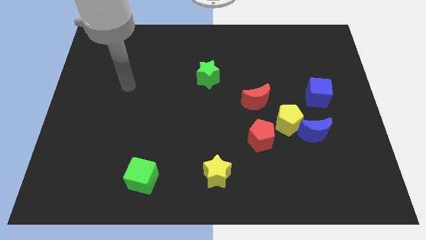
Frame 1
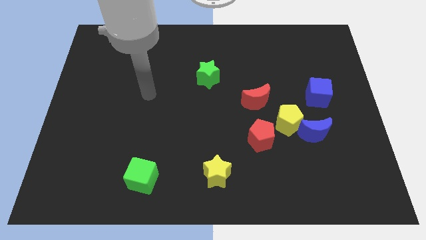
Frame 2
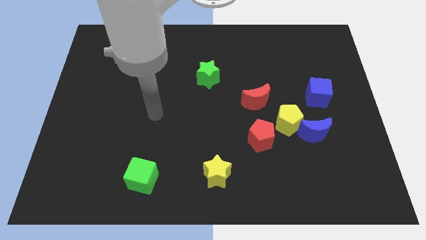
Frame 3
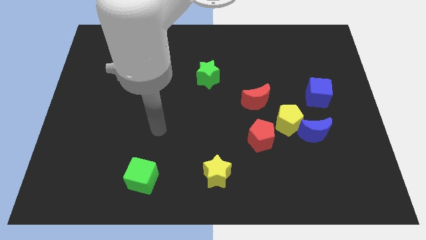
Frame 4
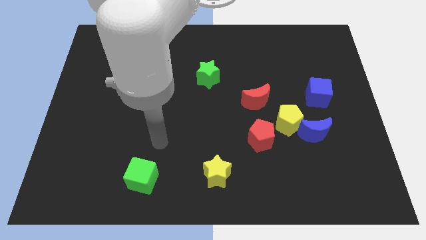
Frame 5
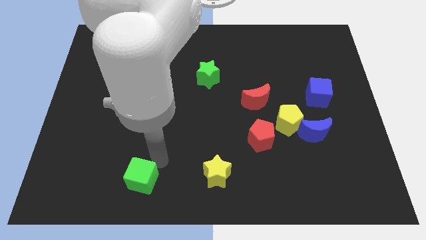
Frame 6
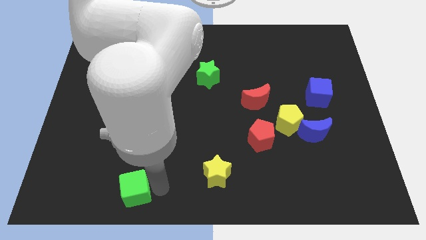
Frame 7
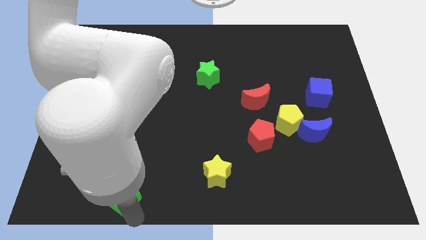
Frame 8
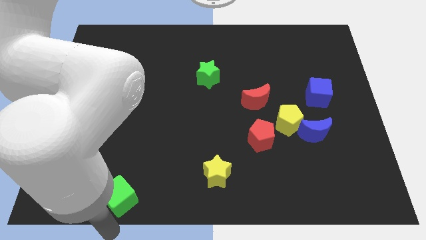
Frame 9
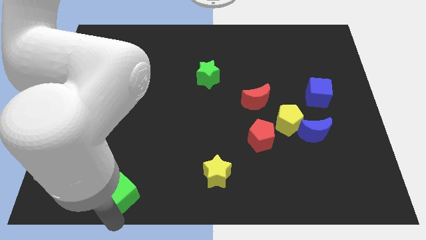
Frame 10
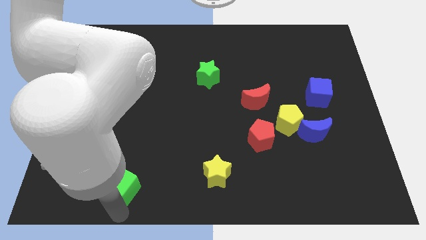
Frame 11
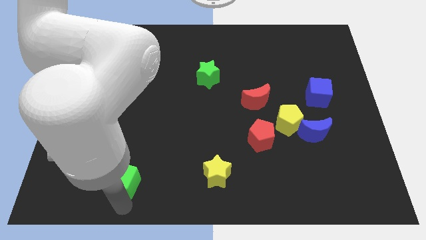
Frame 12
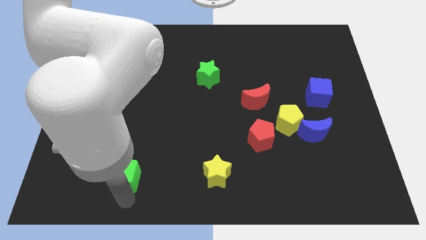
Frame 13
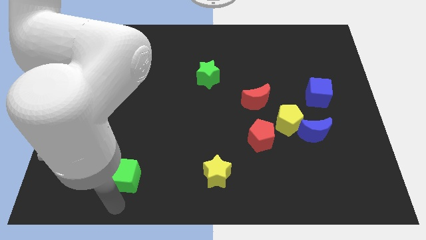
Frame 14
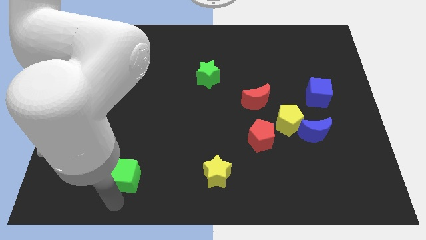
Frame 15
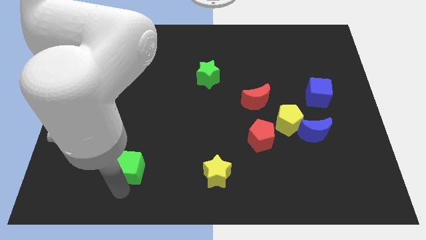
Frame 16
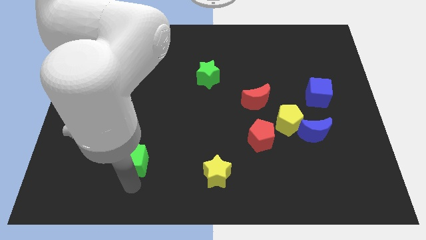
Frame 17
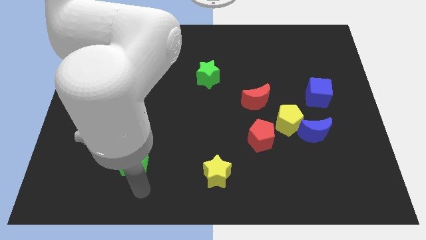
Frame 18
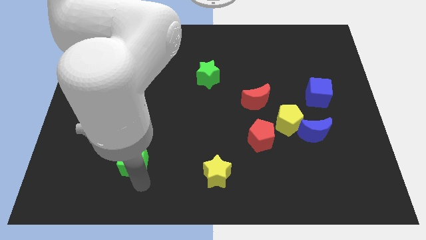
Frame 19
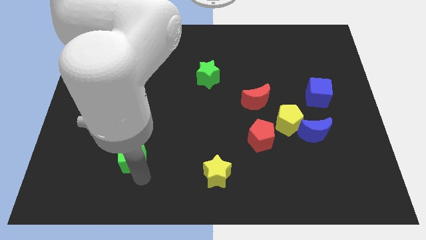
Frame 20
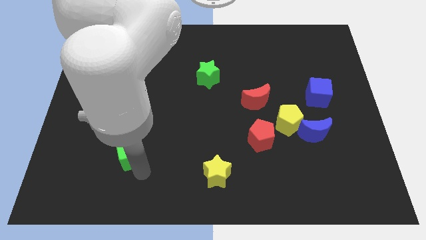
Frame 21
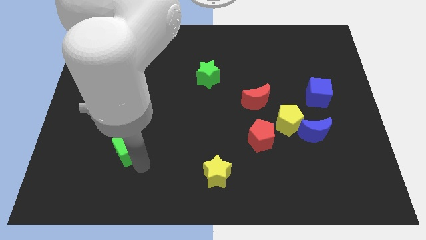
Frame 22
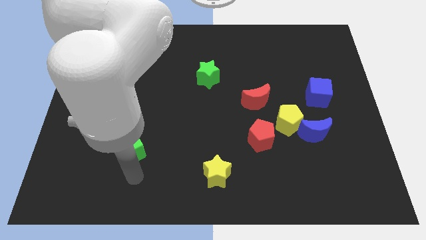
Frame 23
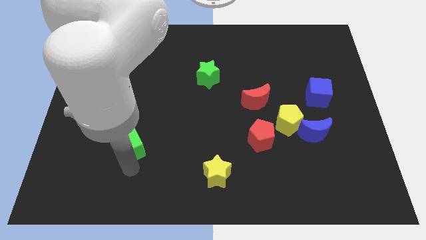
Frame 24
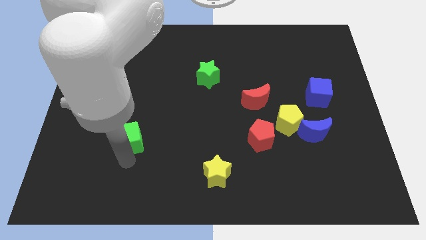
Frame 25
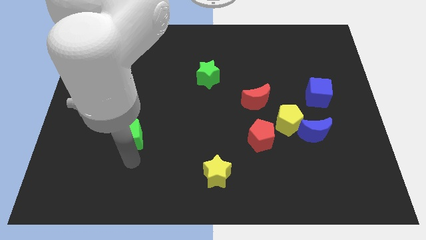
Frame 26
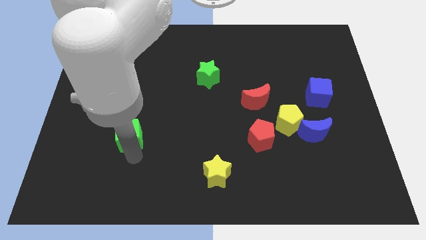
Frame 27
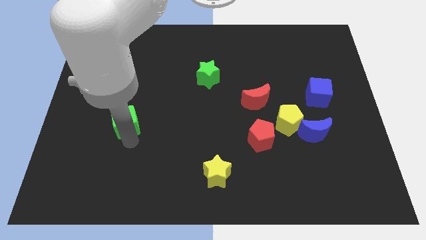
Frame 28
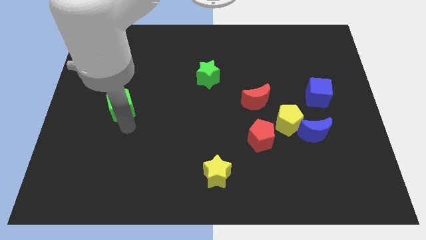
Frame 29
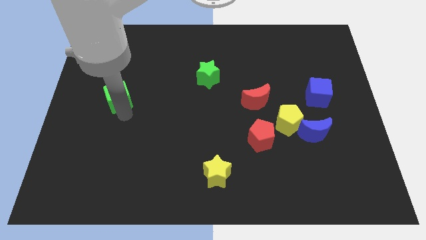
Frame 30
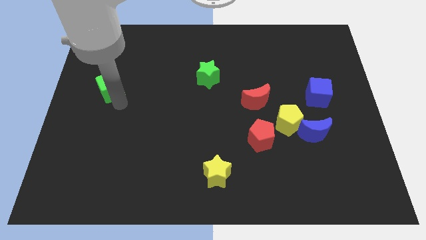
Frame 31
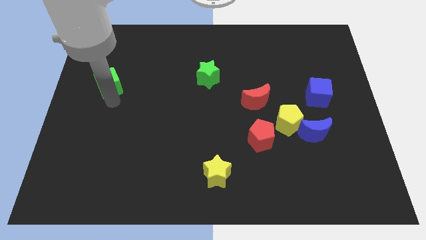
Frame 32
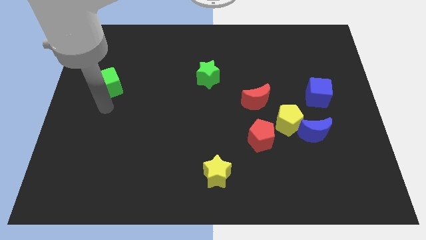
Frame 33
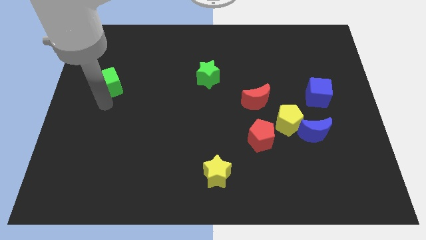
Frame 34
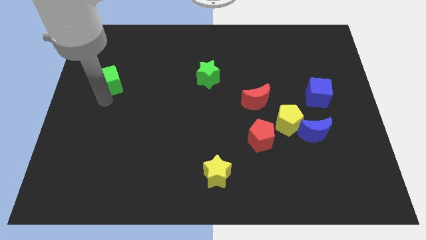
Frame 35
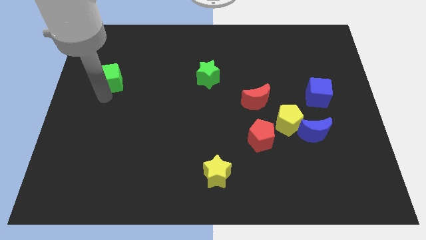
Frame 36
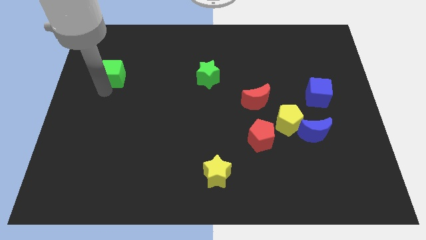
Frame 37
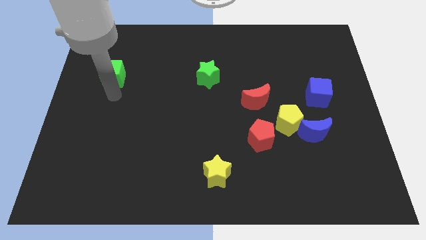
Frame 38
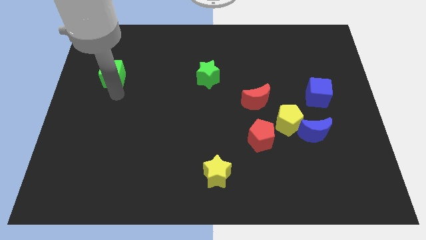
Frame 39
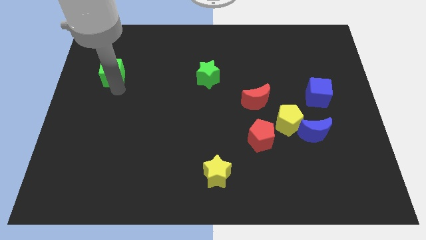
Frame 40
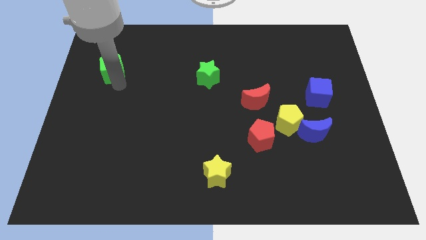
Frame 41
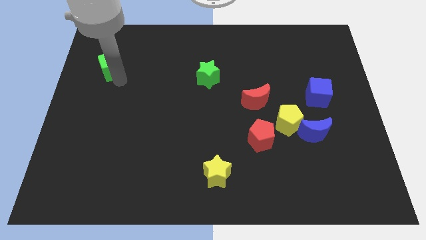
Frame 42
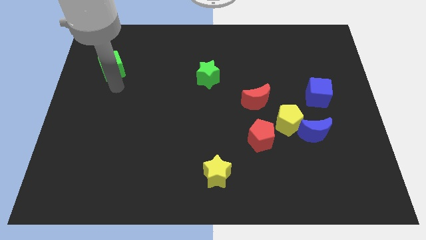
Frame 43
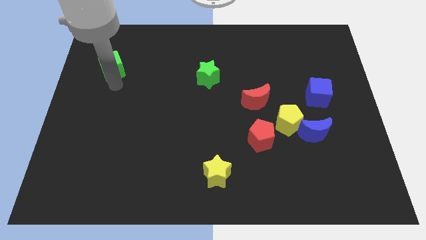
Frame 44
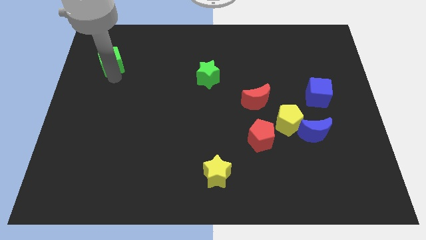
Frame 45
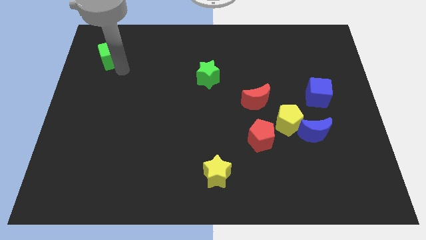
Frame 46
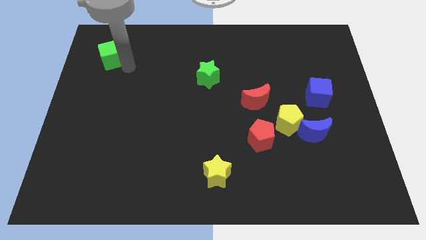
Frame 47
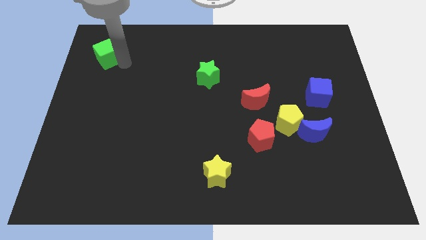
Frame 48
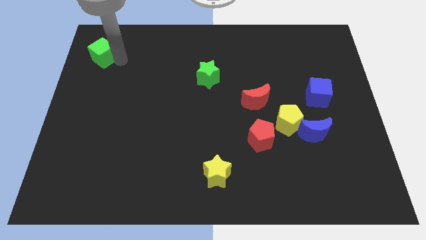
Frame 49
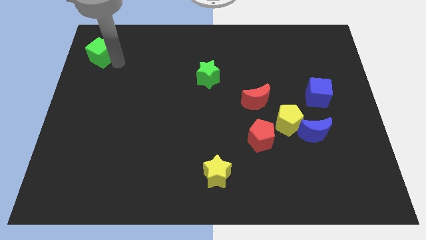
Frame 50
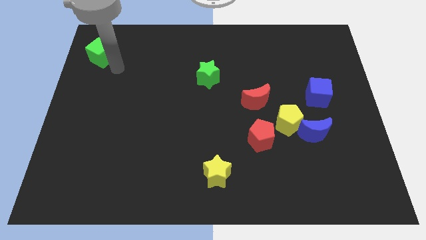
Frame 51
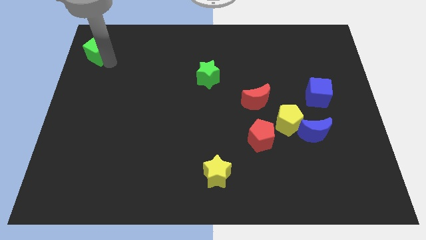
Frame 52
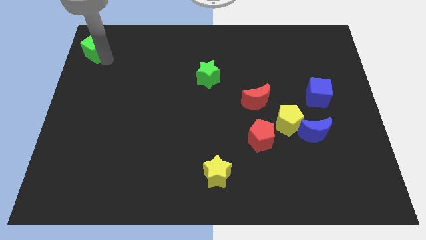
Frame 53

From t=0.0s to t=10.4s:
move the green cube to the top left corner

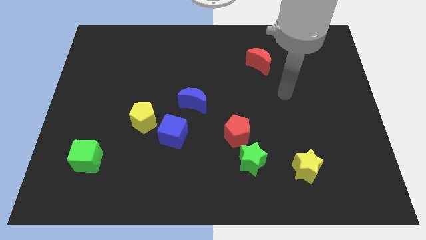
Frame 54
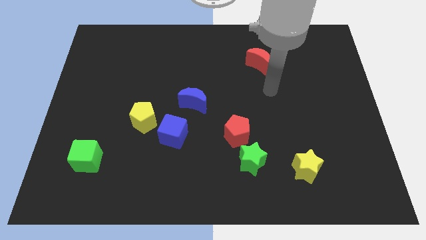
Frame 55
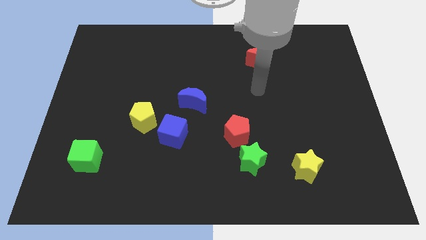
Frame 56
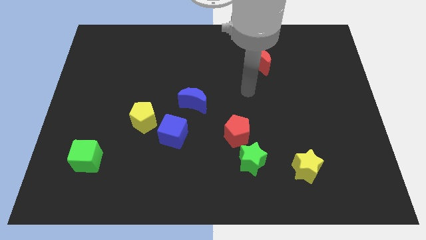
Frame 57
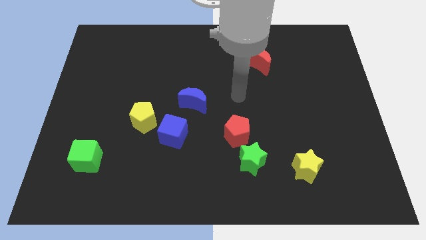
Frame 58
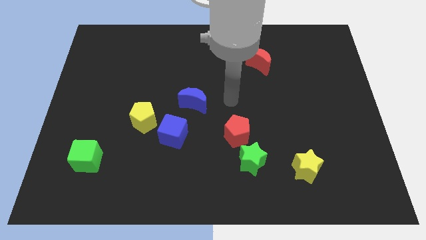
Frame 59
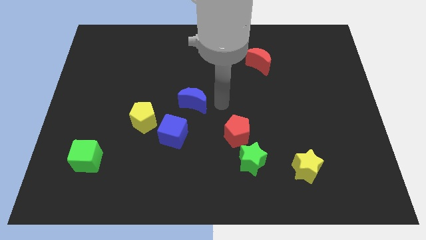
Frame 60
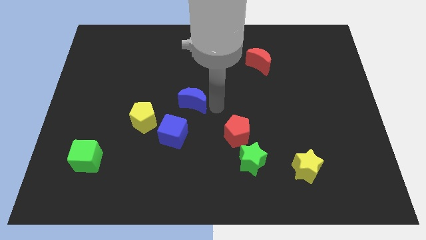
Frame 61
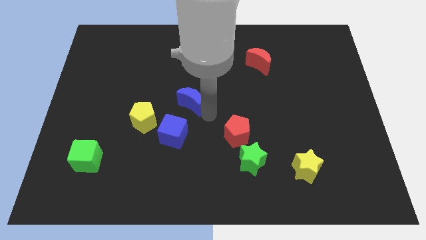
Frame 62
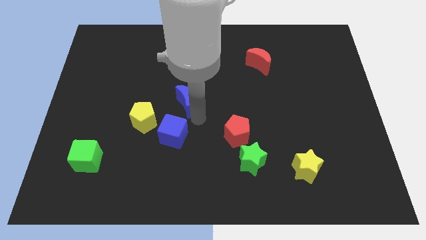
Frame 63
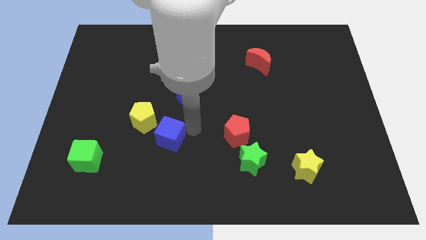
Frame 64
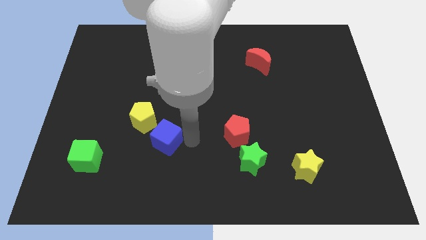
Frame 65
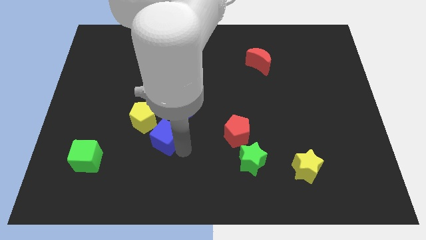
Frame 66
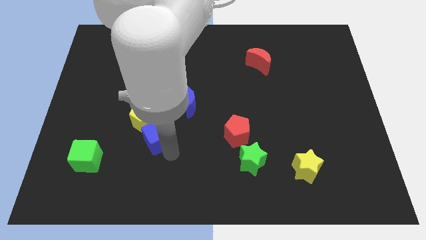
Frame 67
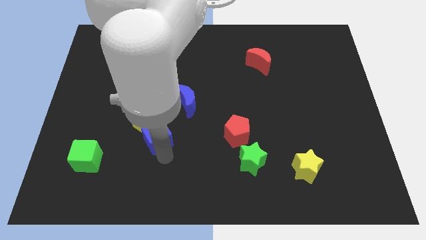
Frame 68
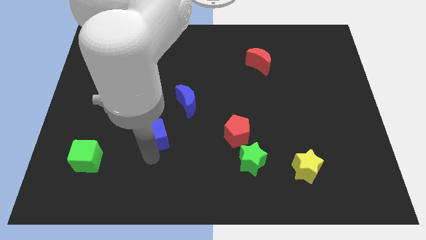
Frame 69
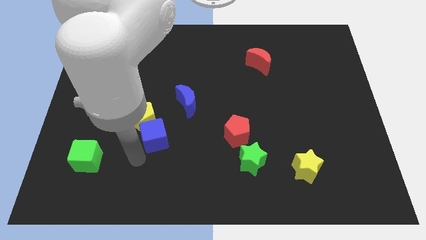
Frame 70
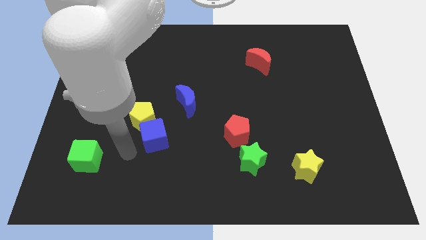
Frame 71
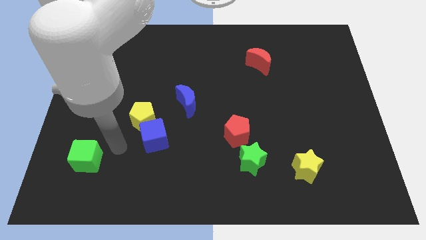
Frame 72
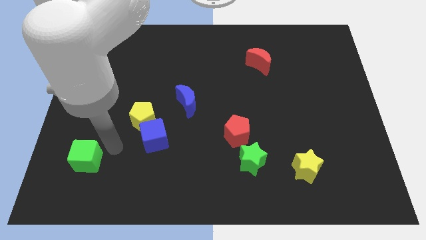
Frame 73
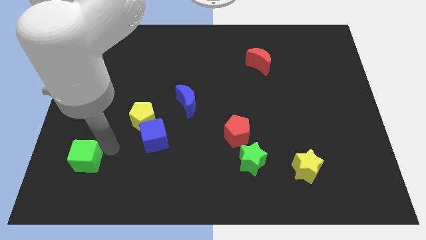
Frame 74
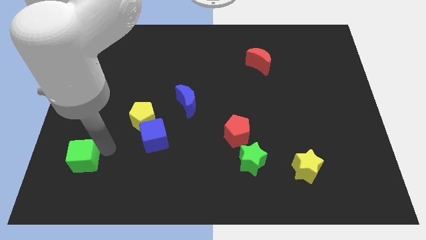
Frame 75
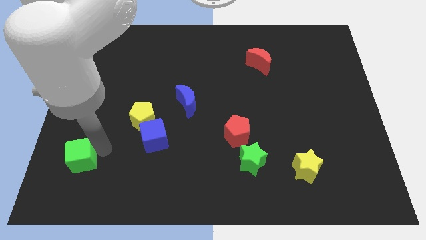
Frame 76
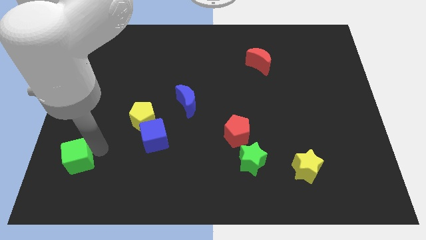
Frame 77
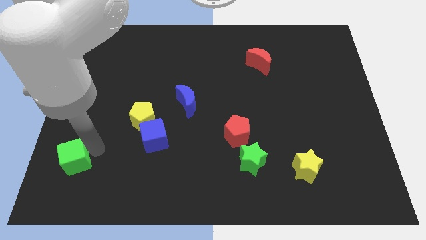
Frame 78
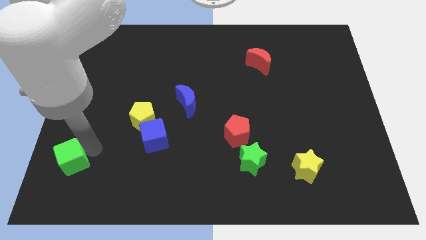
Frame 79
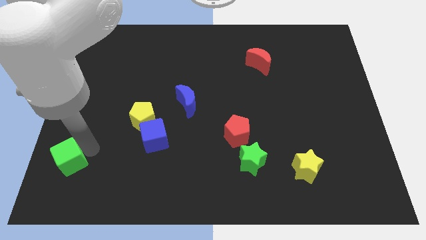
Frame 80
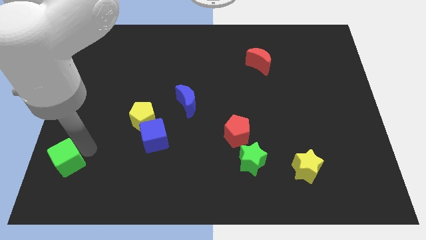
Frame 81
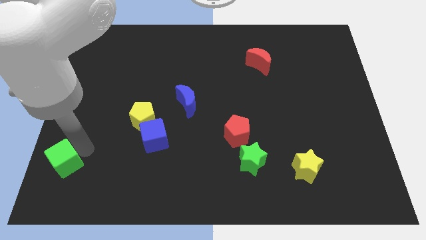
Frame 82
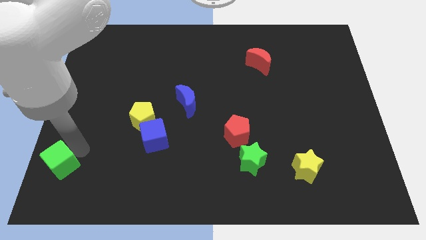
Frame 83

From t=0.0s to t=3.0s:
move the green cube to the bottom left
